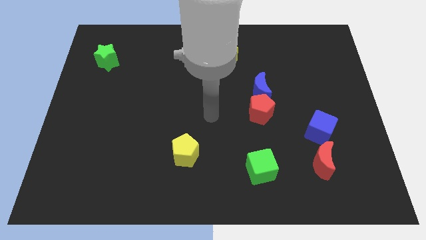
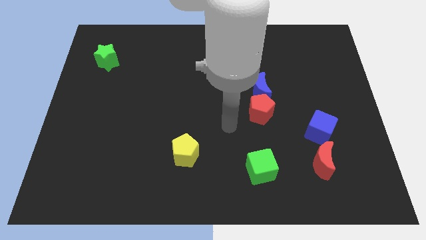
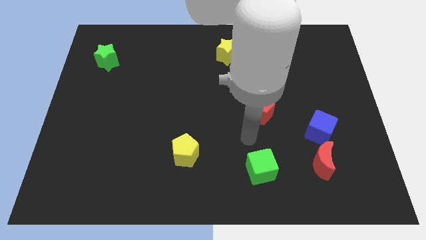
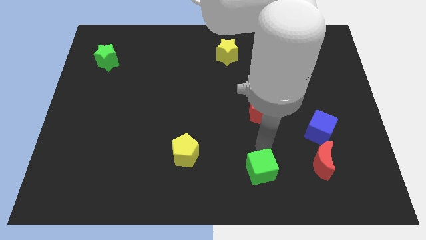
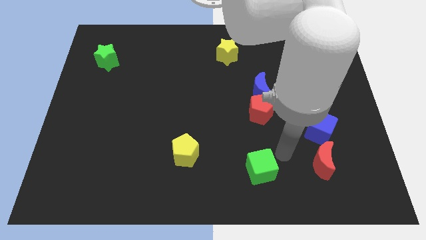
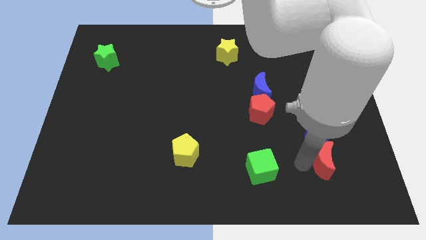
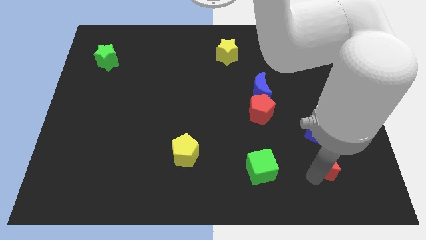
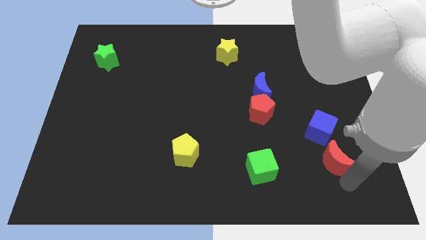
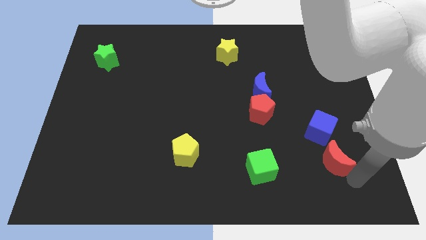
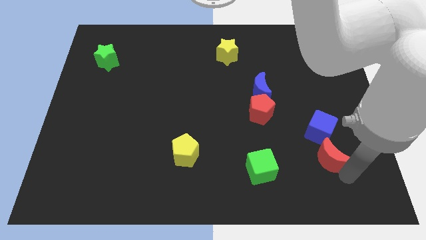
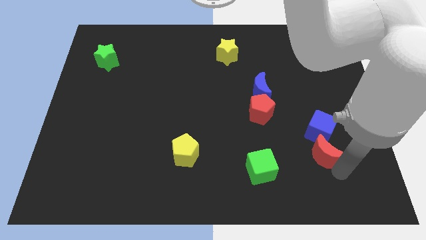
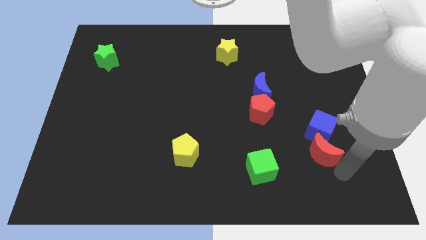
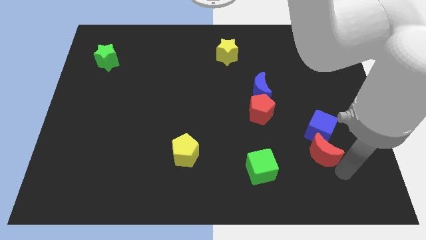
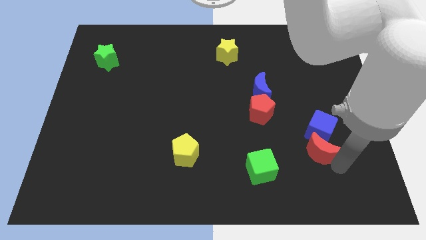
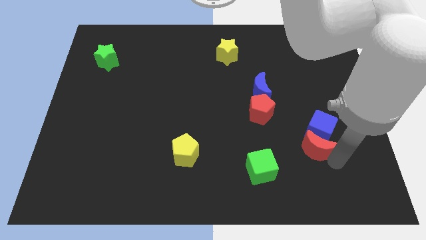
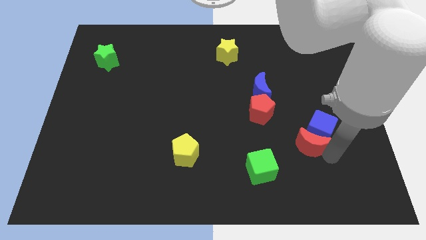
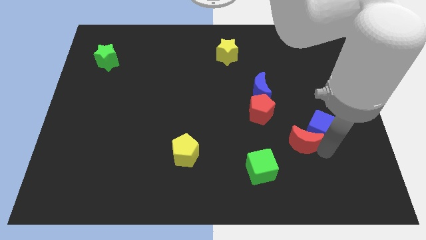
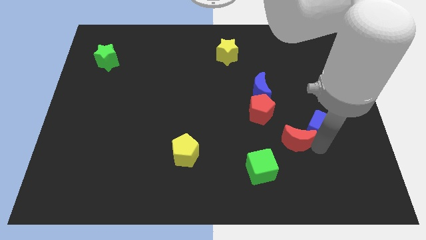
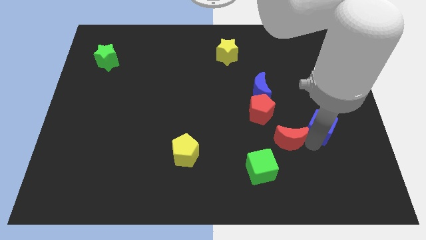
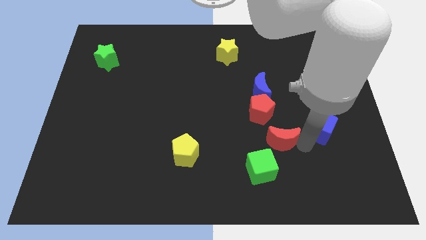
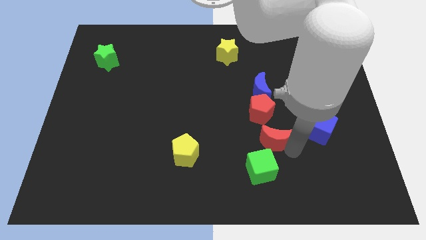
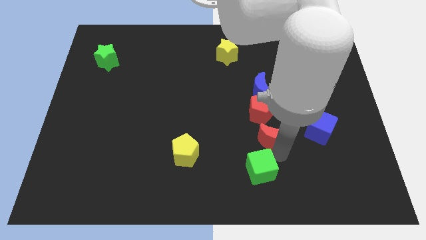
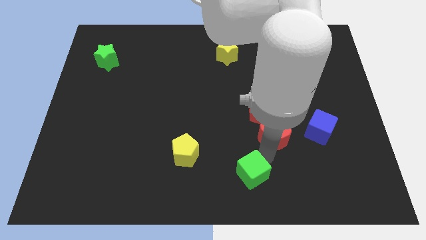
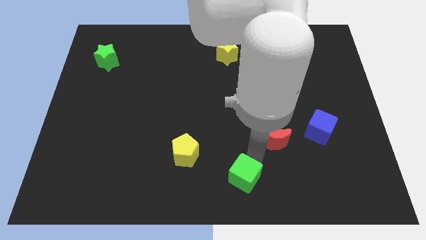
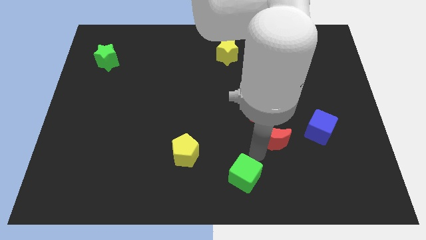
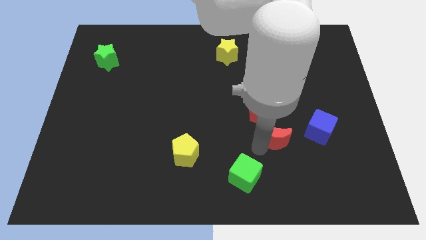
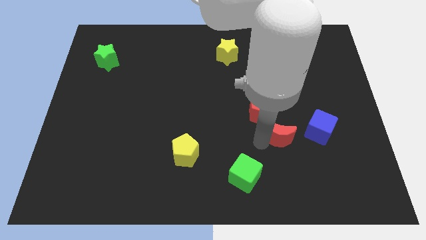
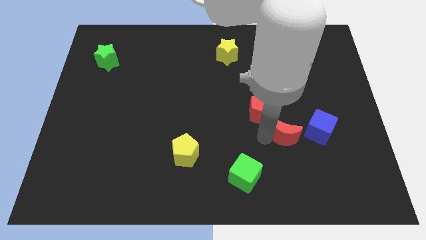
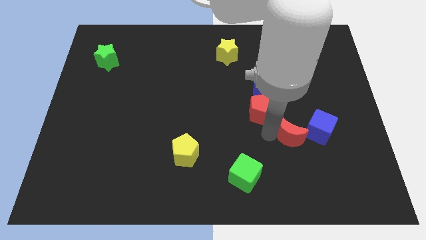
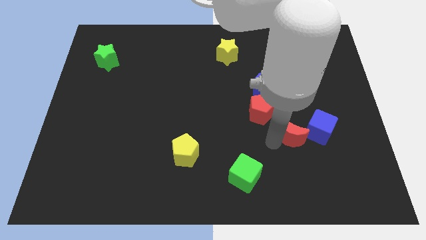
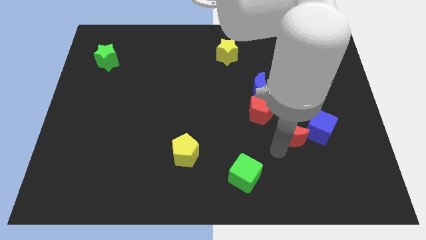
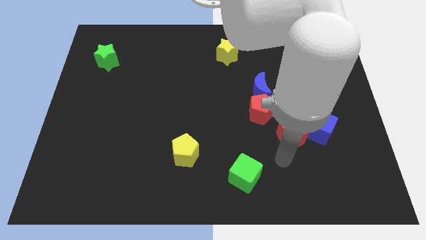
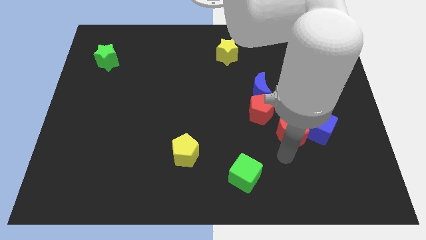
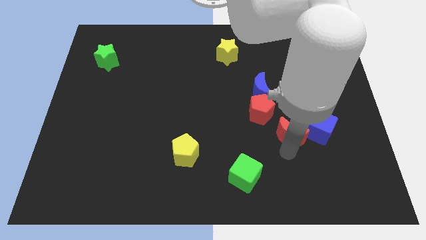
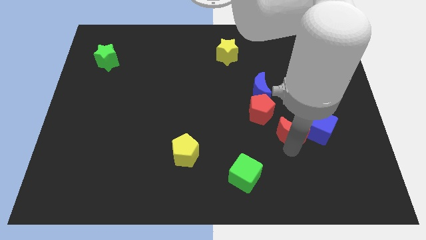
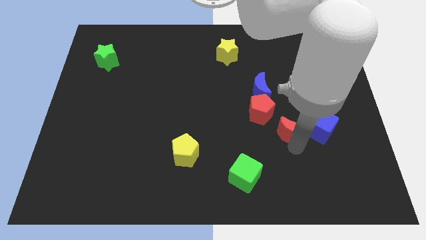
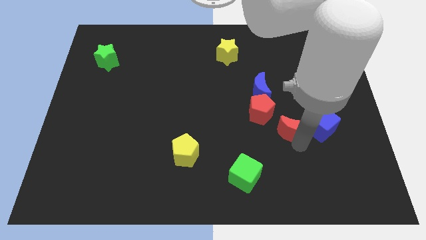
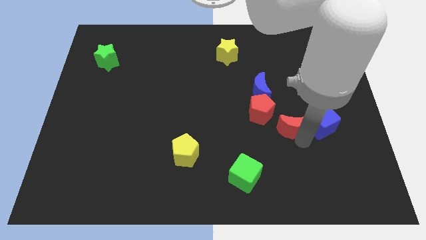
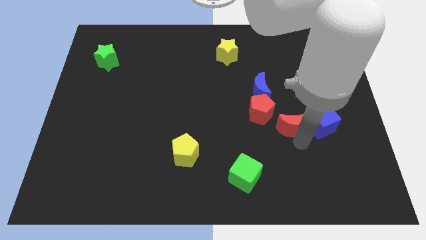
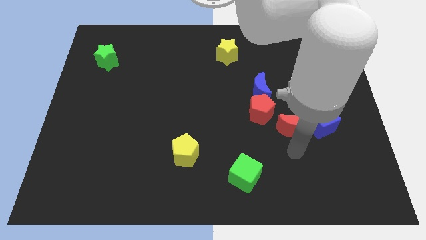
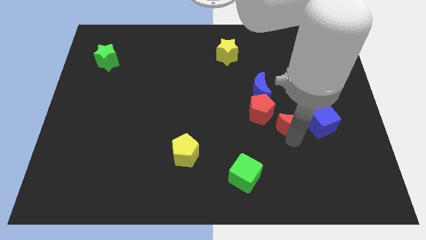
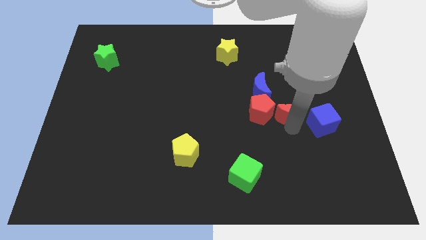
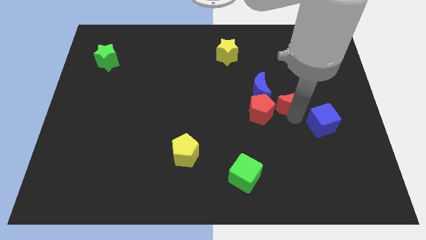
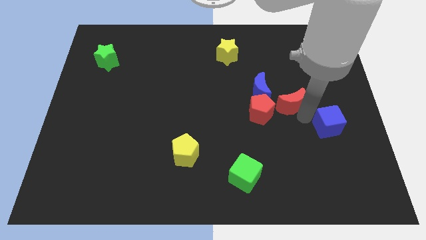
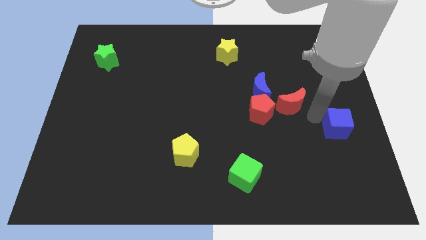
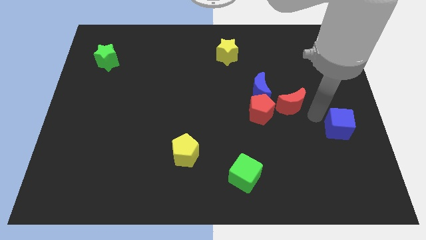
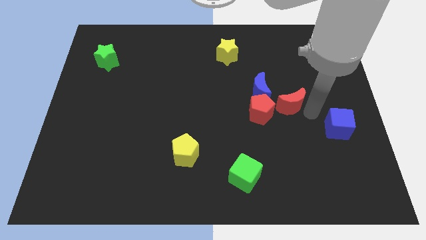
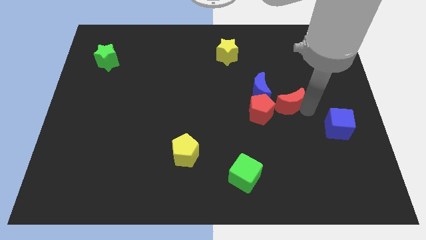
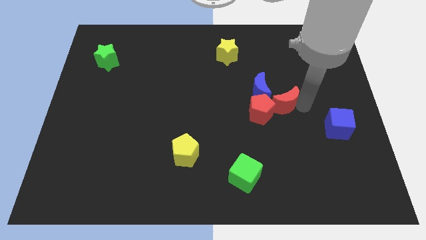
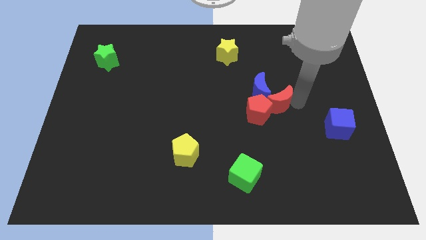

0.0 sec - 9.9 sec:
put the red moon to the blue moon

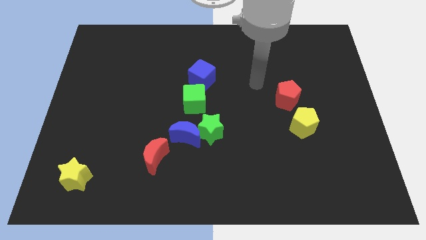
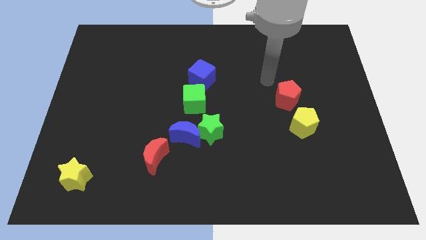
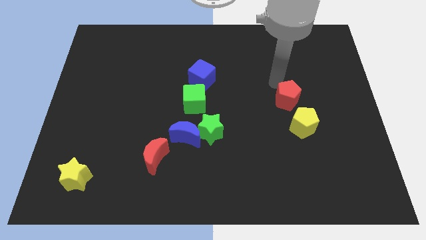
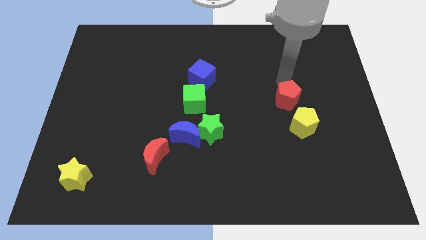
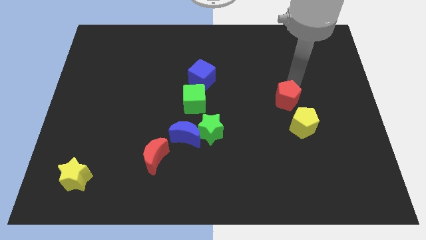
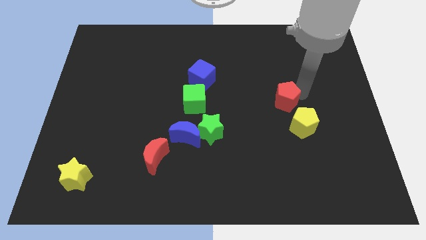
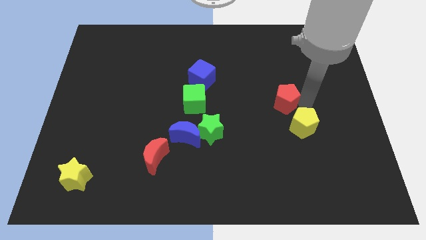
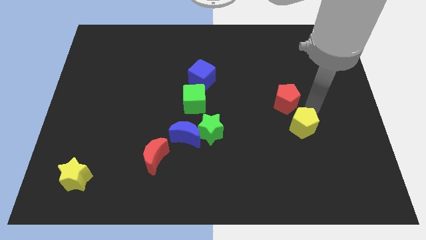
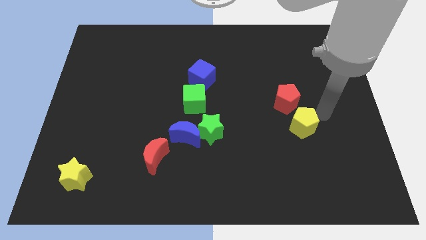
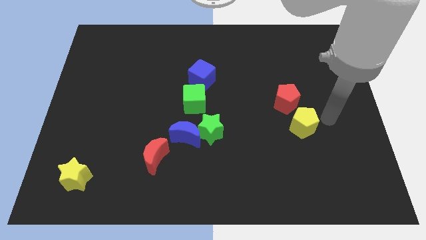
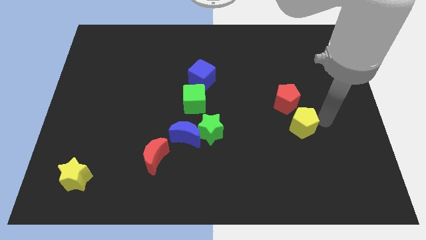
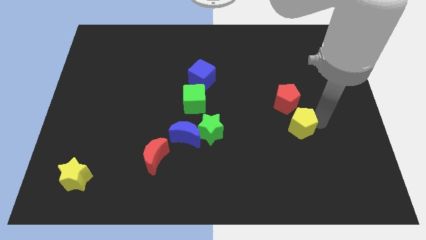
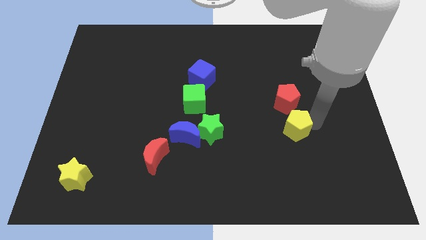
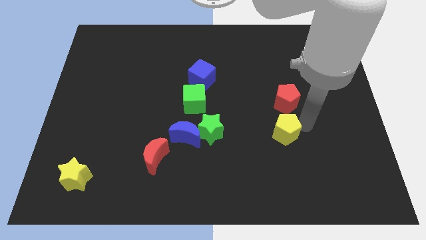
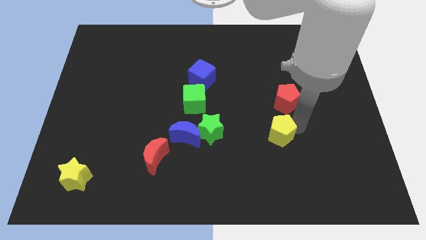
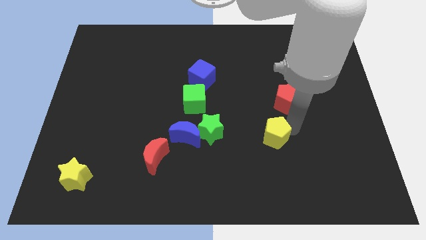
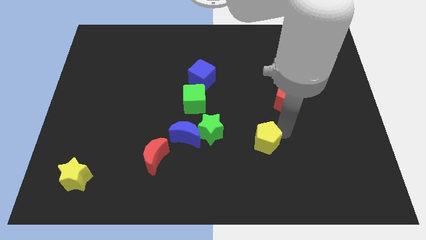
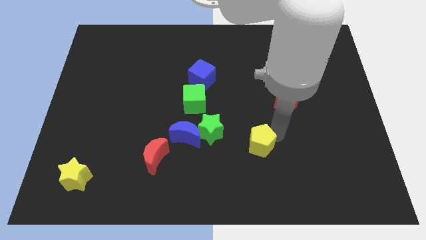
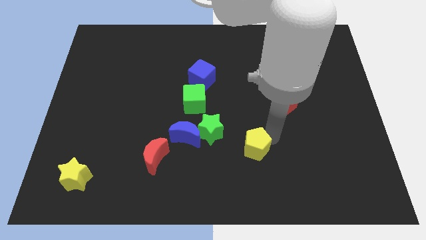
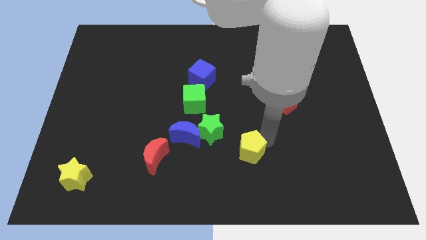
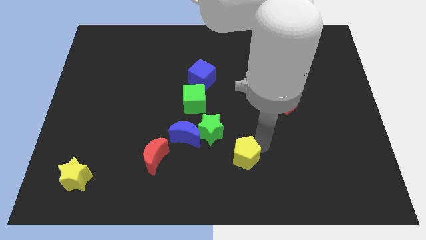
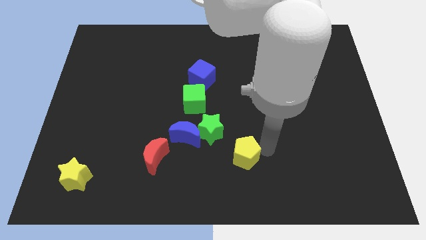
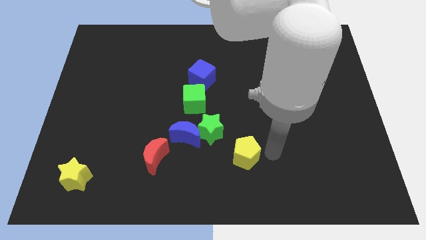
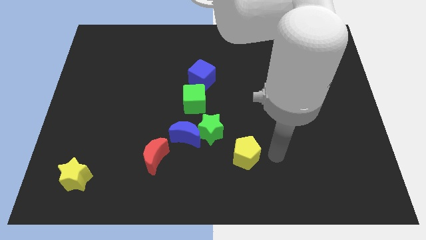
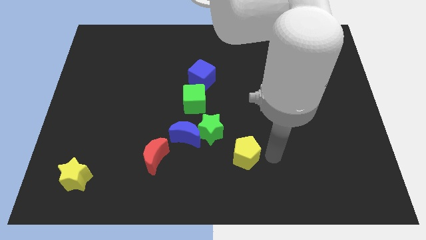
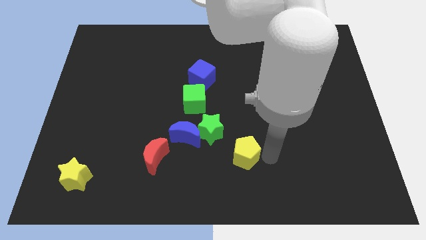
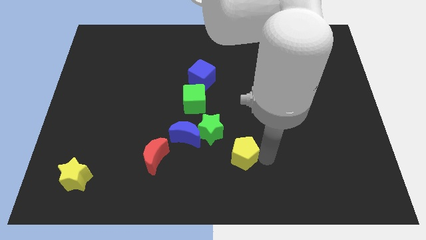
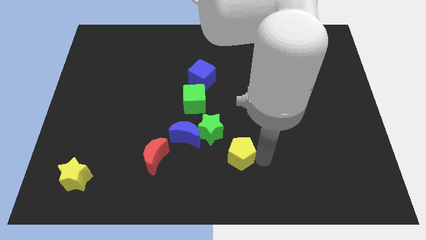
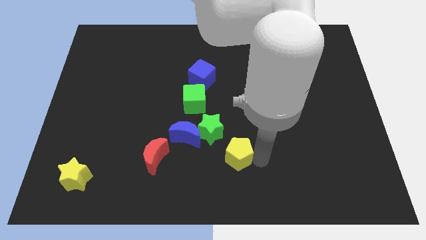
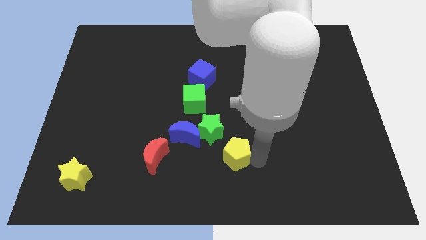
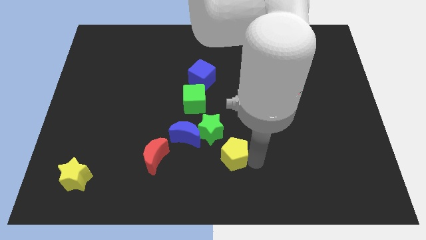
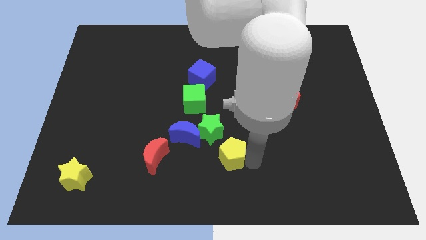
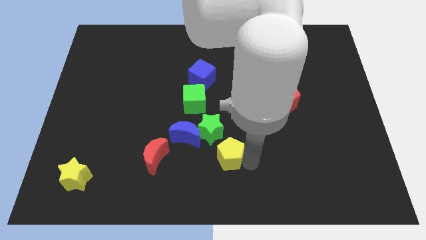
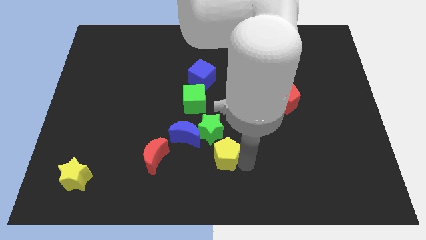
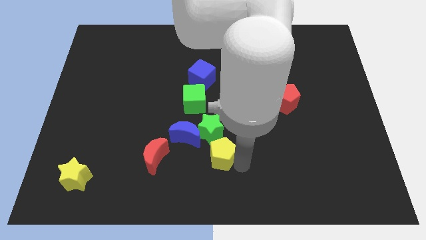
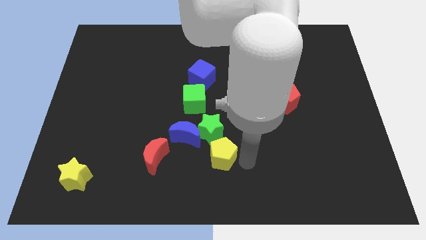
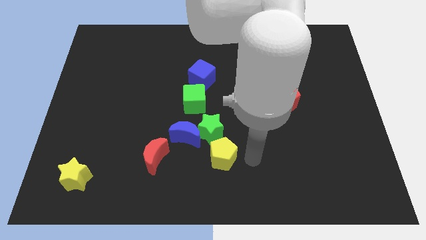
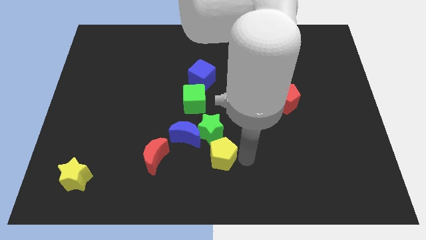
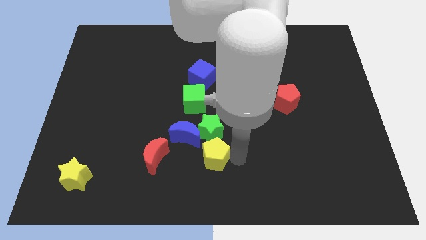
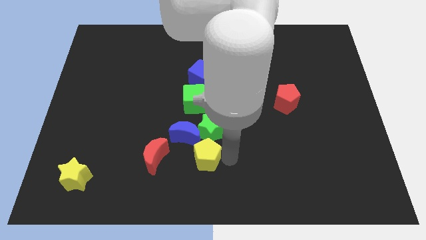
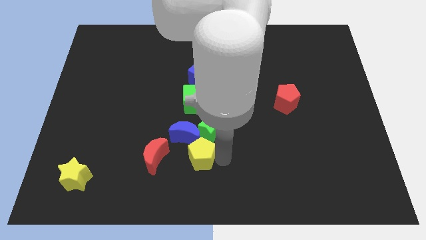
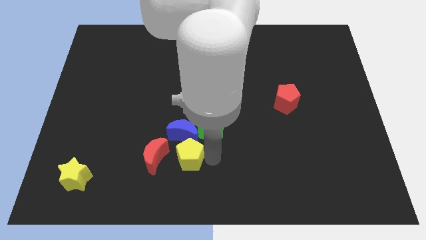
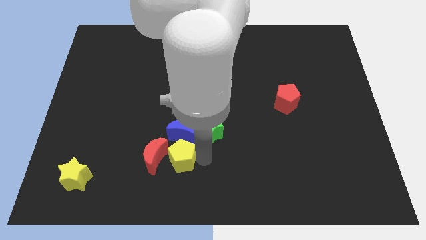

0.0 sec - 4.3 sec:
move the yellow pentagon to the red moon
